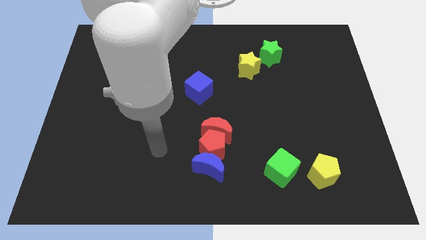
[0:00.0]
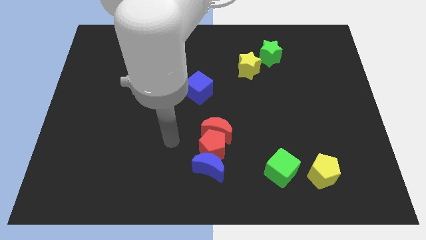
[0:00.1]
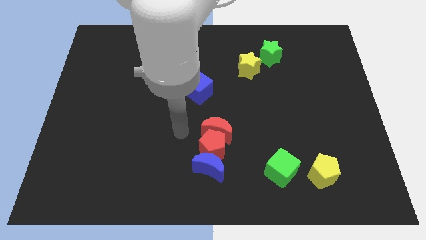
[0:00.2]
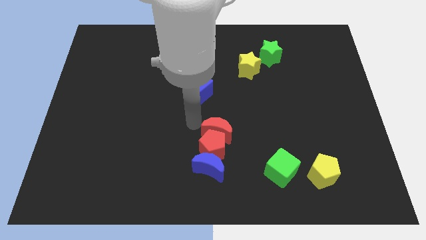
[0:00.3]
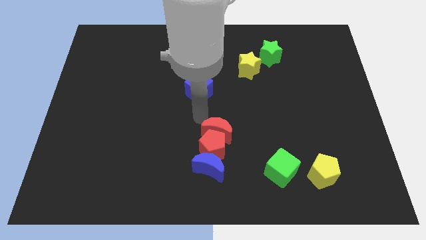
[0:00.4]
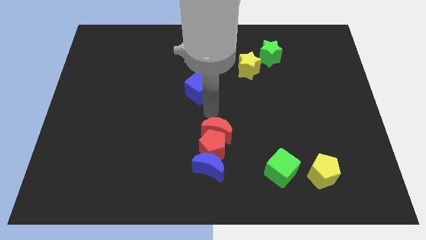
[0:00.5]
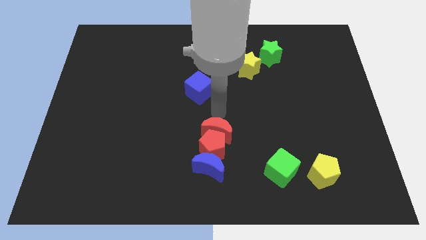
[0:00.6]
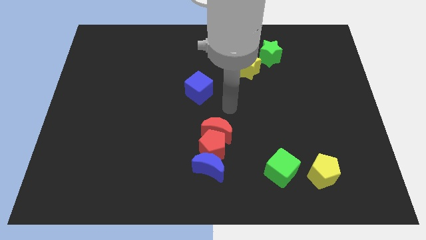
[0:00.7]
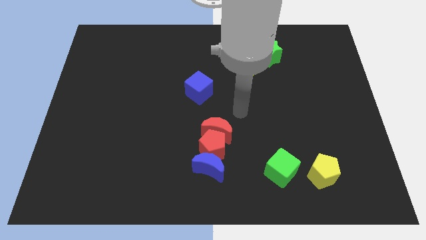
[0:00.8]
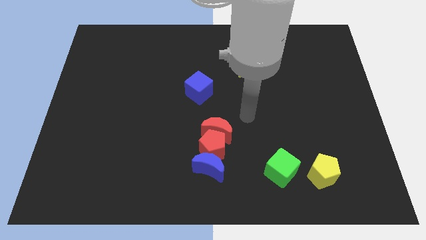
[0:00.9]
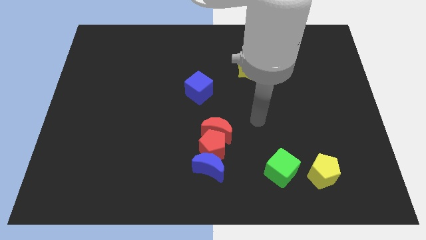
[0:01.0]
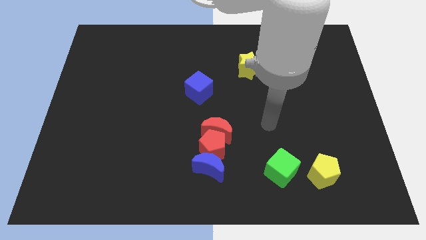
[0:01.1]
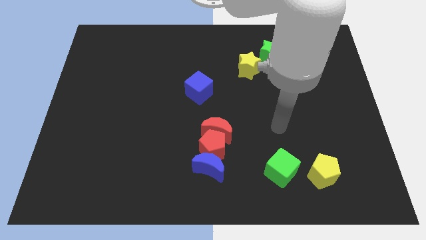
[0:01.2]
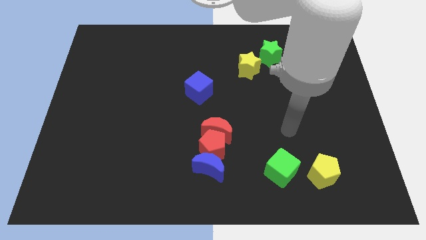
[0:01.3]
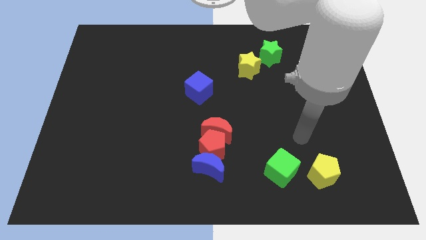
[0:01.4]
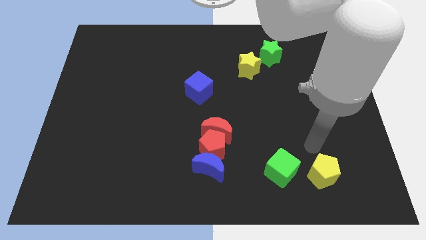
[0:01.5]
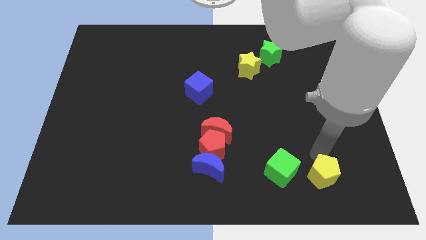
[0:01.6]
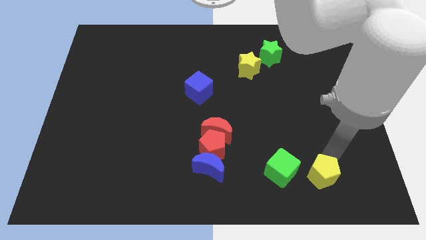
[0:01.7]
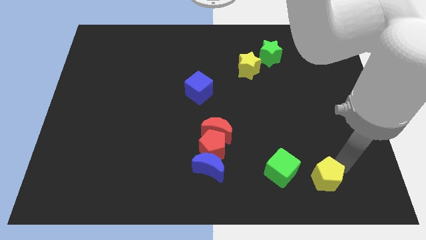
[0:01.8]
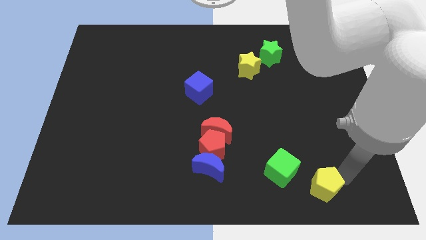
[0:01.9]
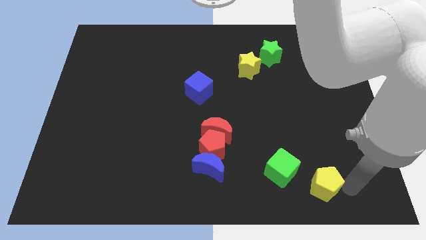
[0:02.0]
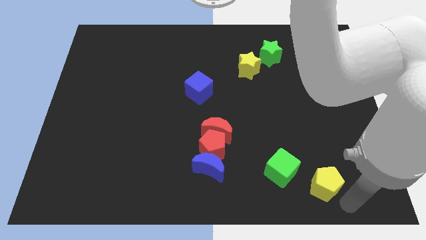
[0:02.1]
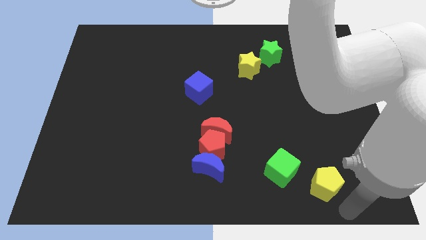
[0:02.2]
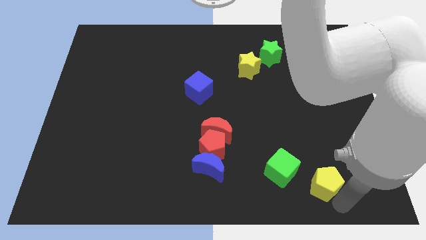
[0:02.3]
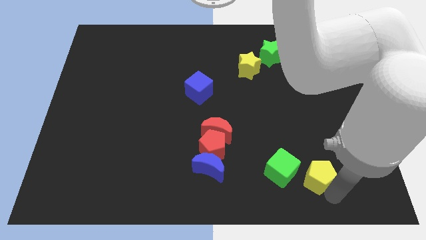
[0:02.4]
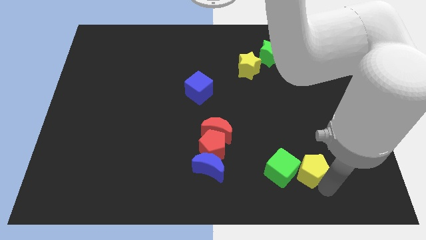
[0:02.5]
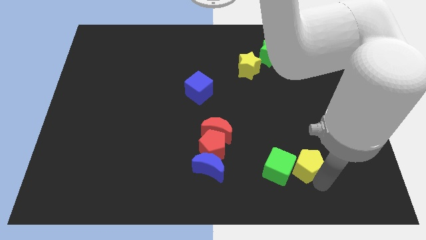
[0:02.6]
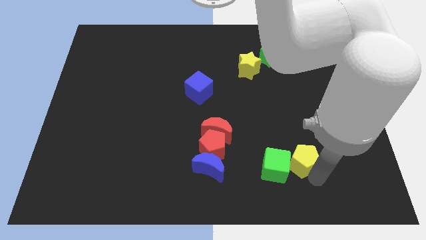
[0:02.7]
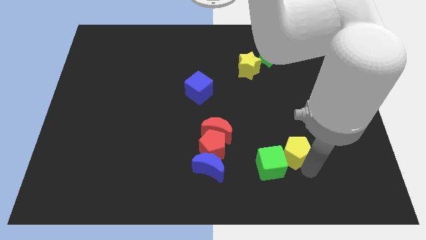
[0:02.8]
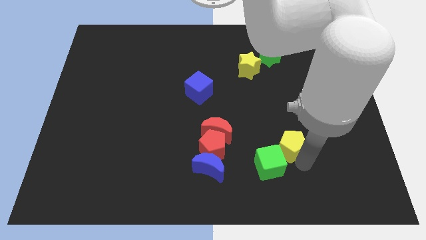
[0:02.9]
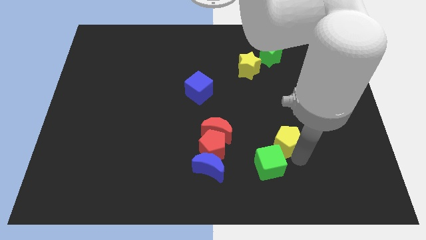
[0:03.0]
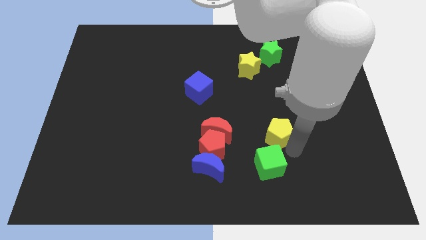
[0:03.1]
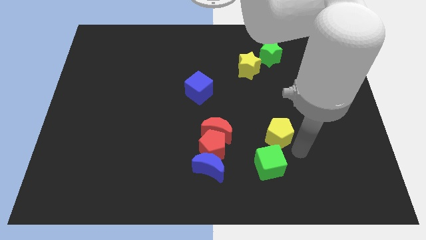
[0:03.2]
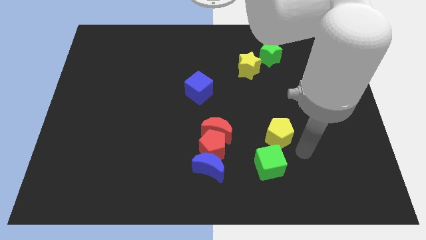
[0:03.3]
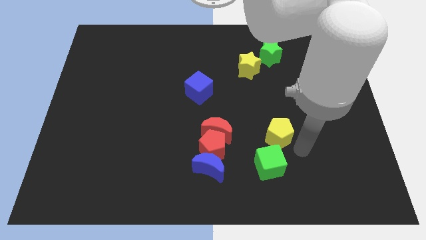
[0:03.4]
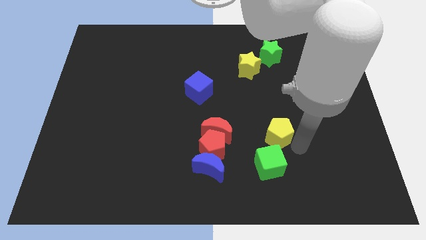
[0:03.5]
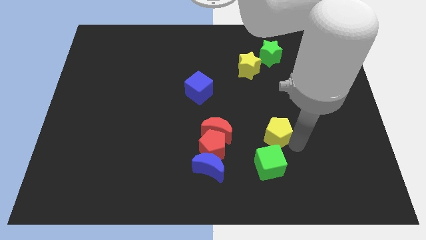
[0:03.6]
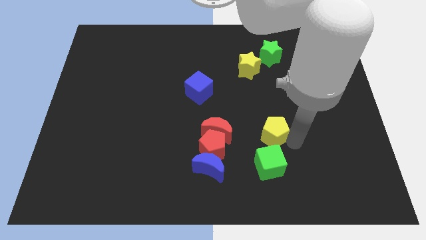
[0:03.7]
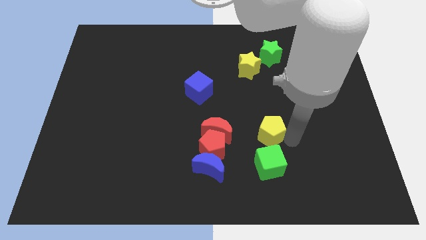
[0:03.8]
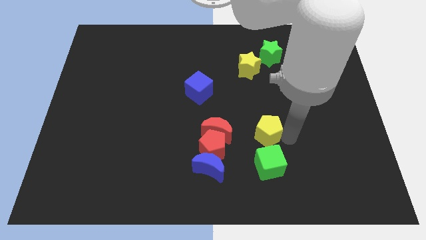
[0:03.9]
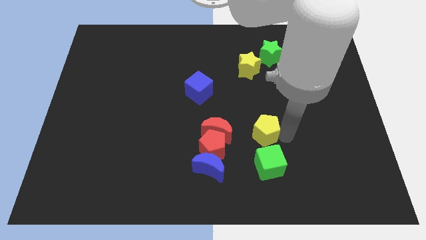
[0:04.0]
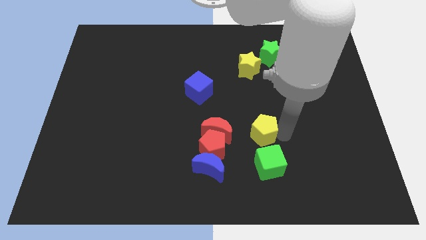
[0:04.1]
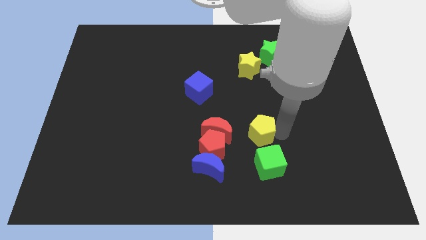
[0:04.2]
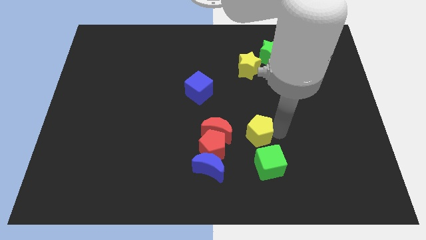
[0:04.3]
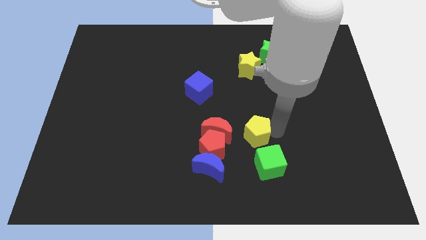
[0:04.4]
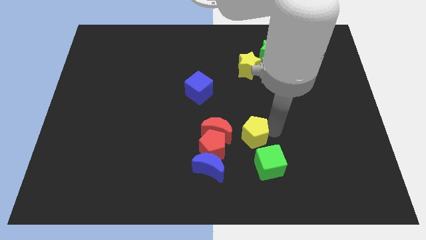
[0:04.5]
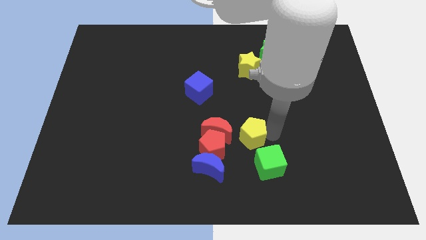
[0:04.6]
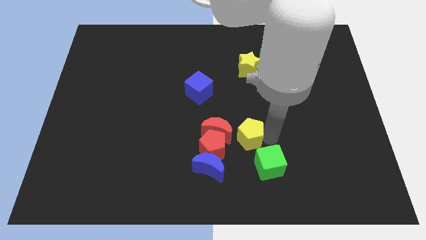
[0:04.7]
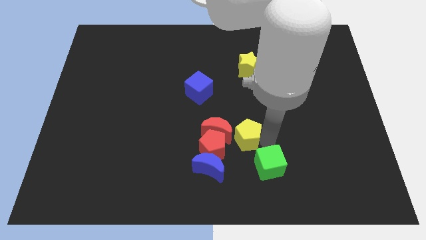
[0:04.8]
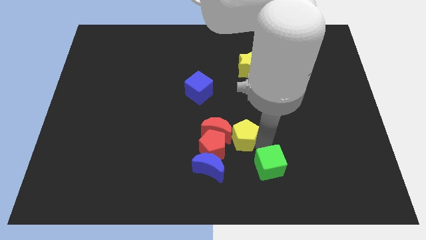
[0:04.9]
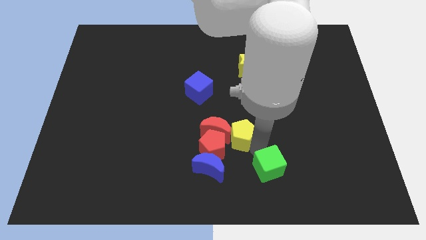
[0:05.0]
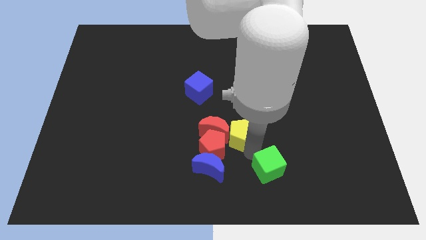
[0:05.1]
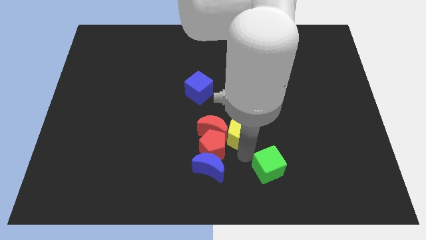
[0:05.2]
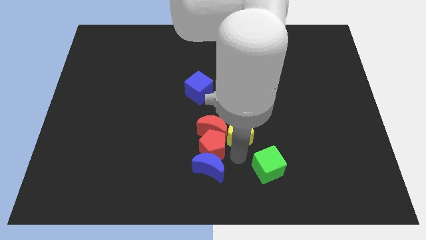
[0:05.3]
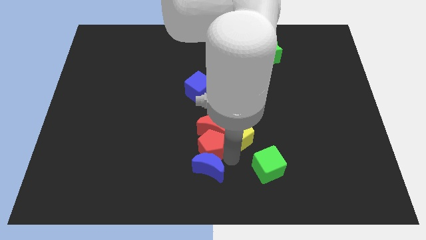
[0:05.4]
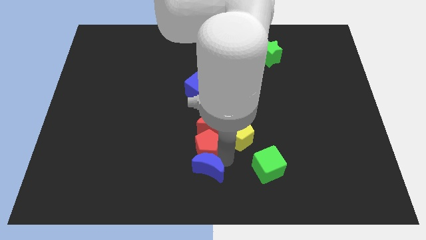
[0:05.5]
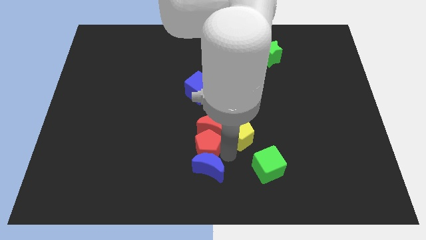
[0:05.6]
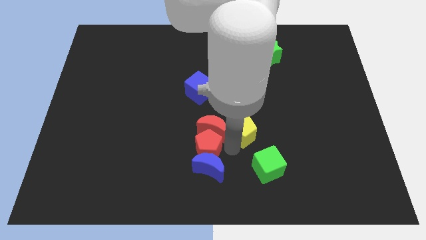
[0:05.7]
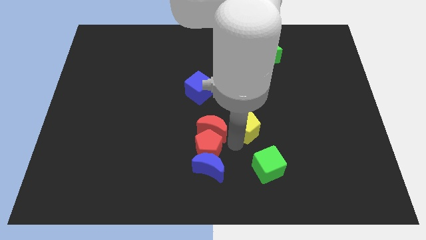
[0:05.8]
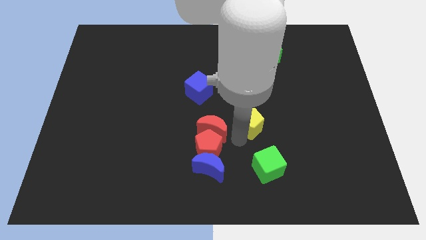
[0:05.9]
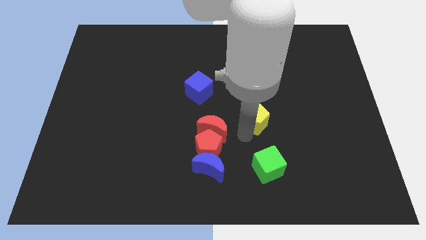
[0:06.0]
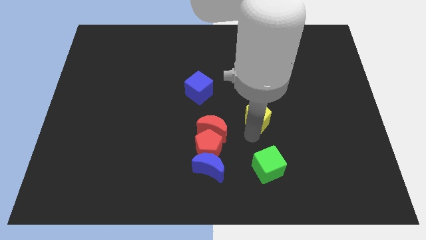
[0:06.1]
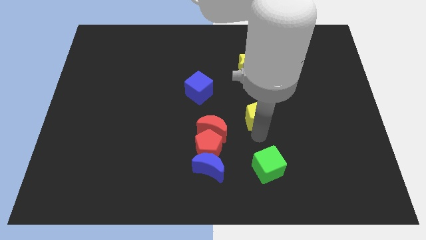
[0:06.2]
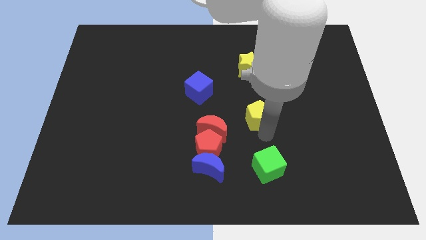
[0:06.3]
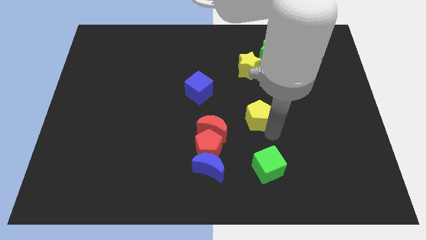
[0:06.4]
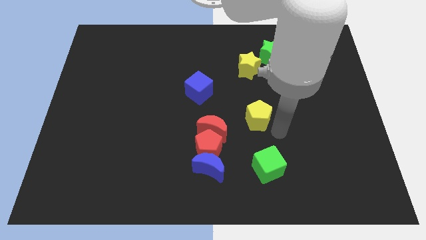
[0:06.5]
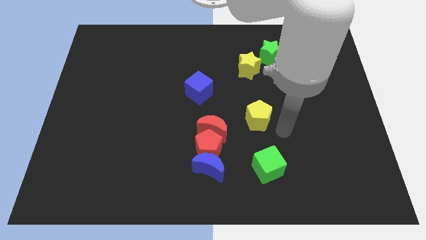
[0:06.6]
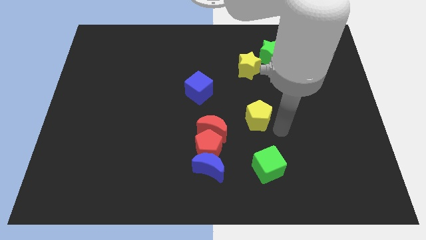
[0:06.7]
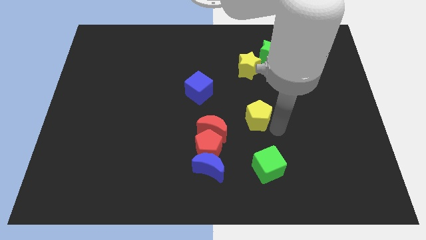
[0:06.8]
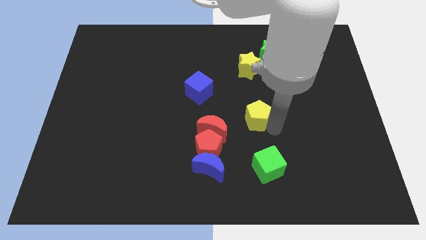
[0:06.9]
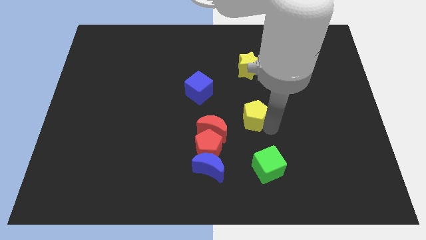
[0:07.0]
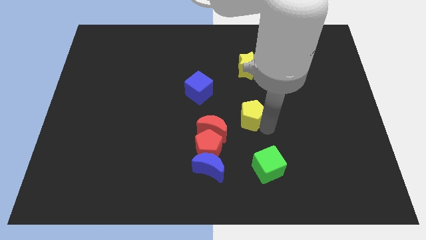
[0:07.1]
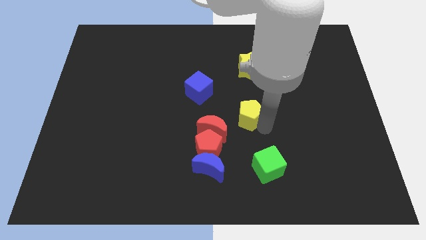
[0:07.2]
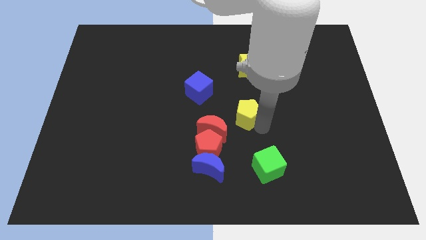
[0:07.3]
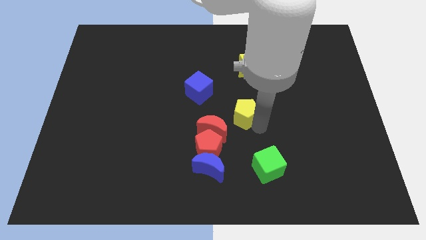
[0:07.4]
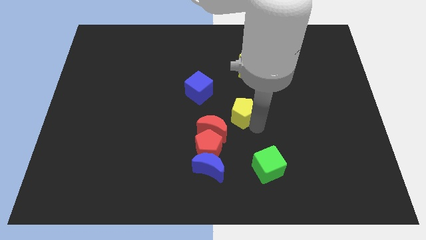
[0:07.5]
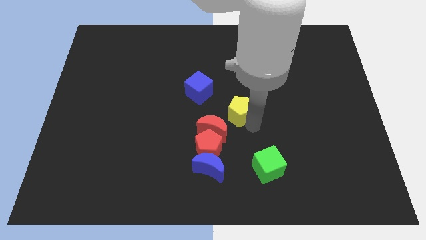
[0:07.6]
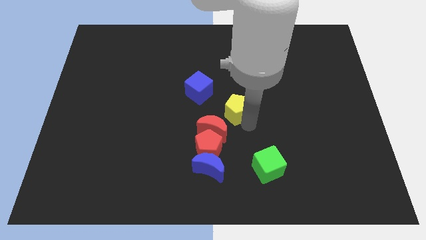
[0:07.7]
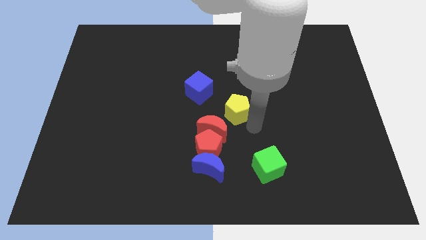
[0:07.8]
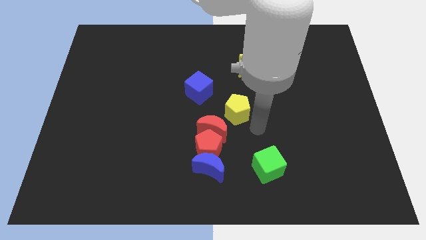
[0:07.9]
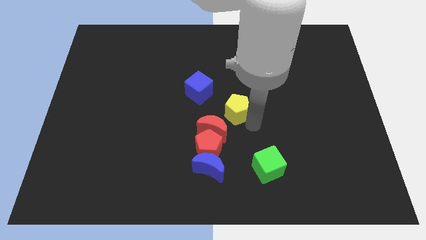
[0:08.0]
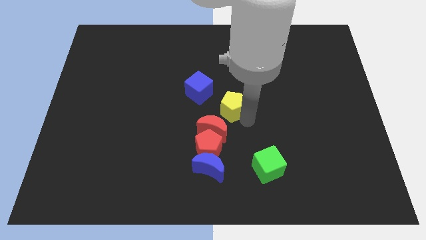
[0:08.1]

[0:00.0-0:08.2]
slide the yellow pentagon to the top side of the red moon
